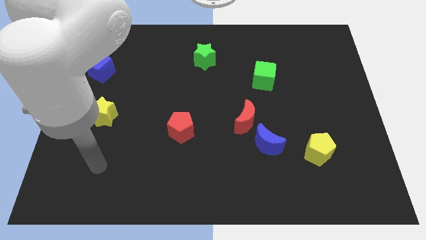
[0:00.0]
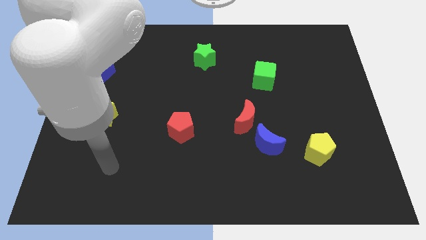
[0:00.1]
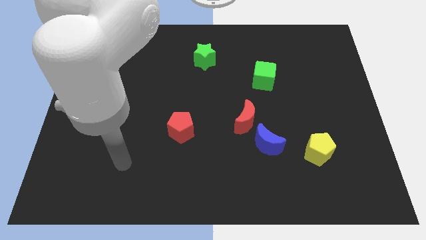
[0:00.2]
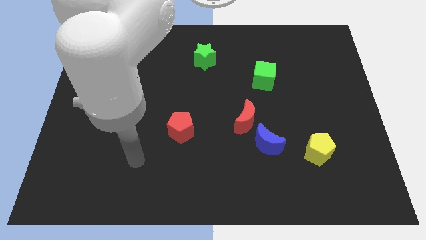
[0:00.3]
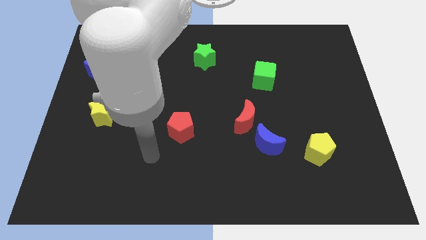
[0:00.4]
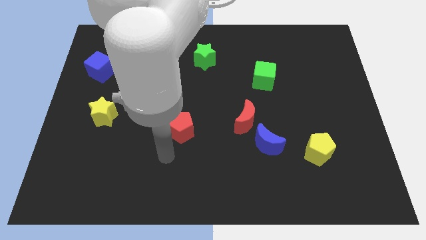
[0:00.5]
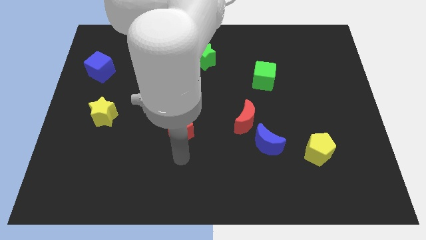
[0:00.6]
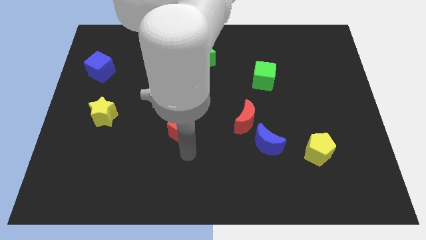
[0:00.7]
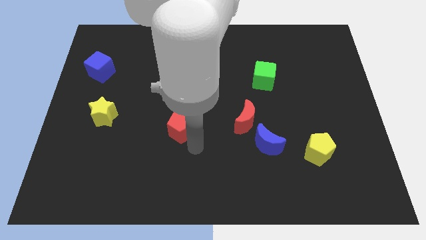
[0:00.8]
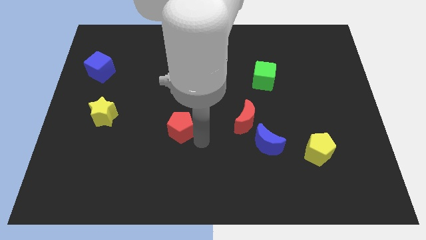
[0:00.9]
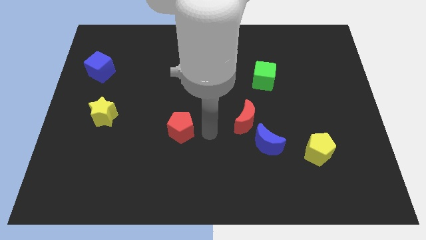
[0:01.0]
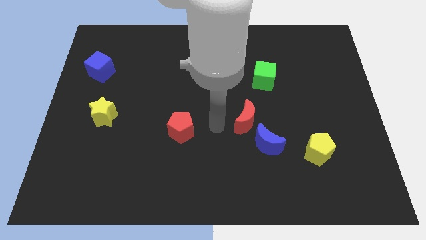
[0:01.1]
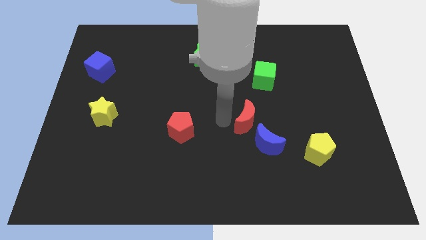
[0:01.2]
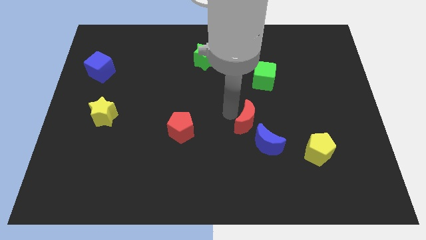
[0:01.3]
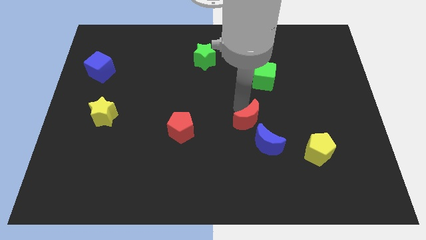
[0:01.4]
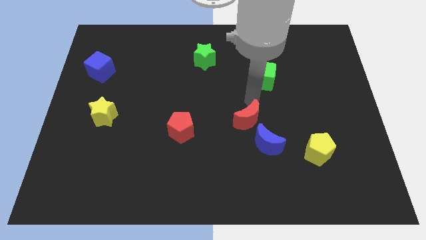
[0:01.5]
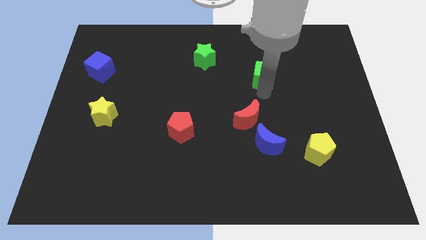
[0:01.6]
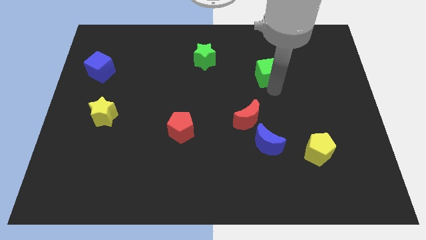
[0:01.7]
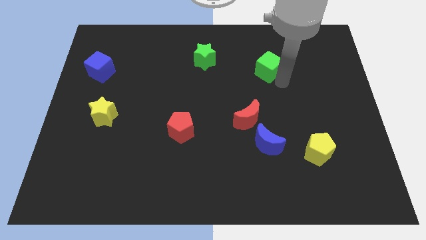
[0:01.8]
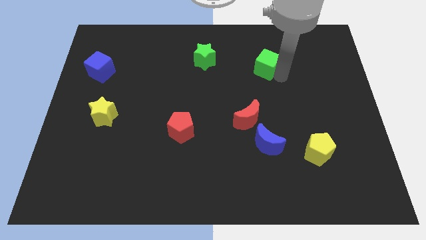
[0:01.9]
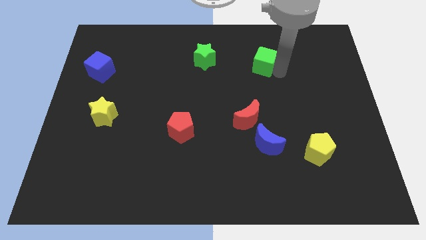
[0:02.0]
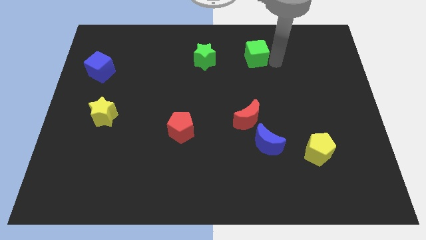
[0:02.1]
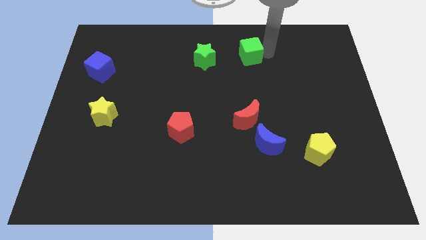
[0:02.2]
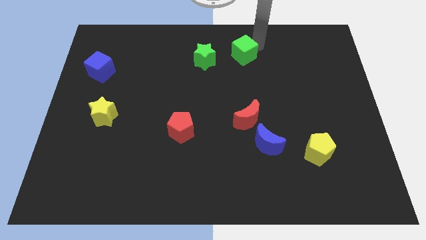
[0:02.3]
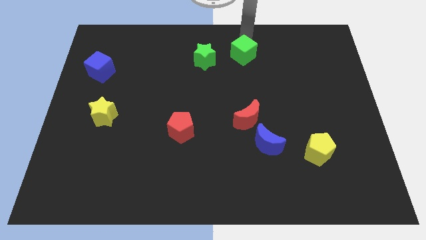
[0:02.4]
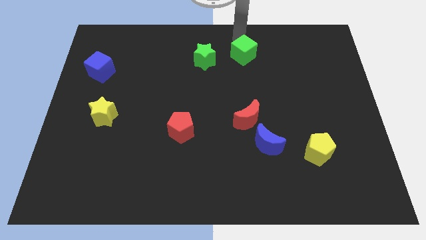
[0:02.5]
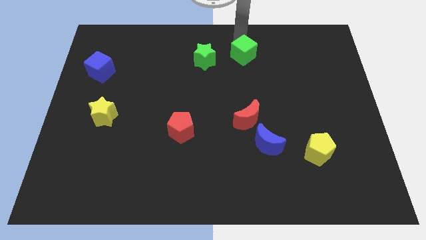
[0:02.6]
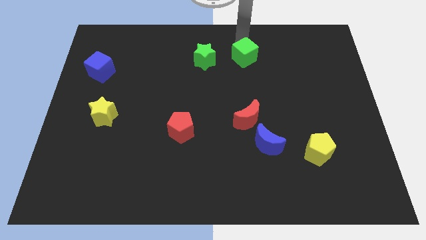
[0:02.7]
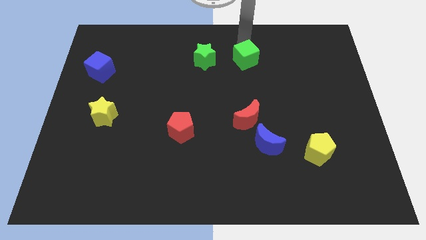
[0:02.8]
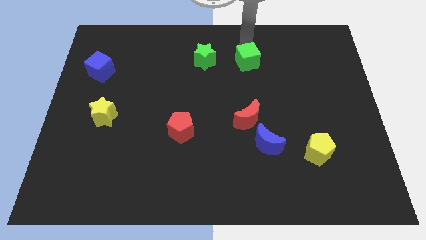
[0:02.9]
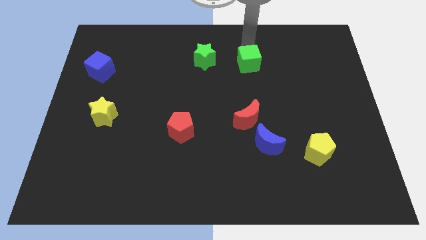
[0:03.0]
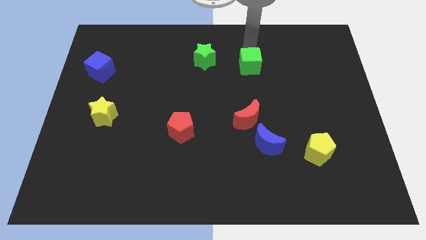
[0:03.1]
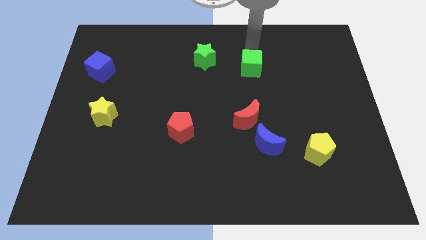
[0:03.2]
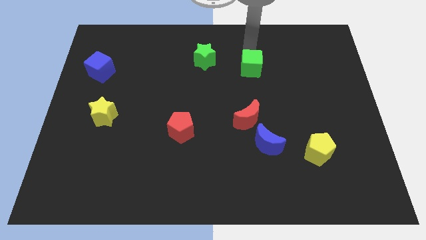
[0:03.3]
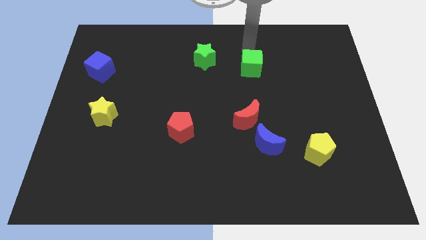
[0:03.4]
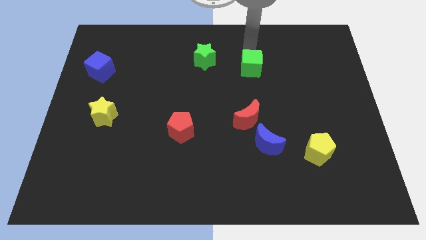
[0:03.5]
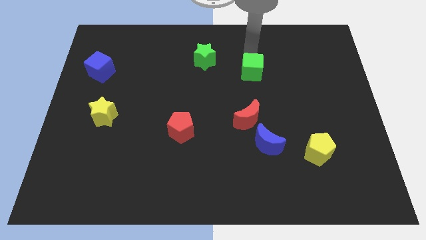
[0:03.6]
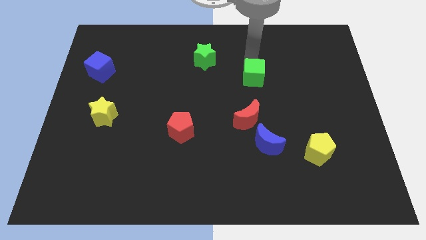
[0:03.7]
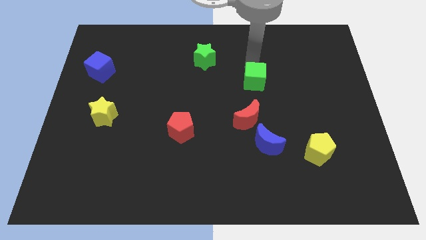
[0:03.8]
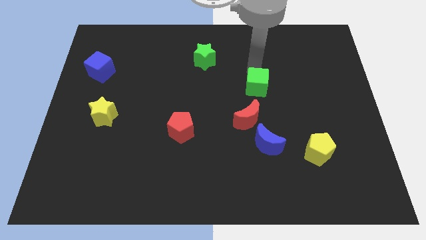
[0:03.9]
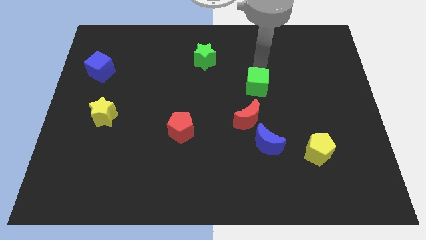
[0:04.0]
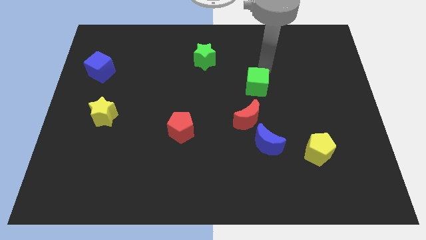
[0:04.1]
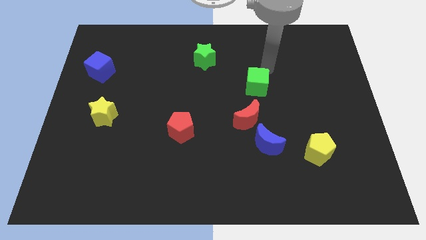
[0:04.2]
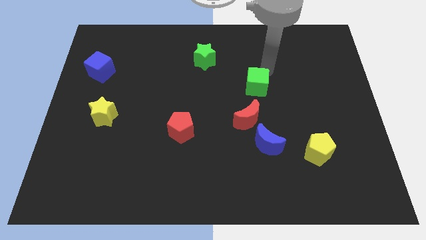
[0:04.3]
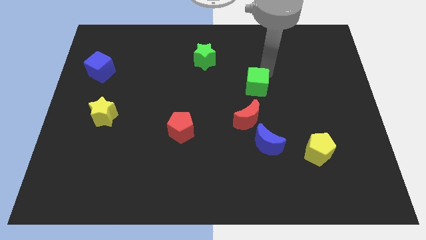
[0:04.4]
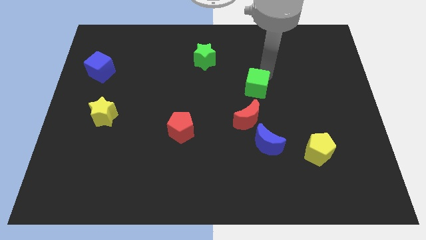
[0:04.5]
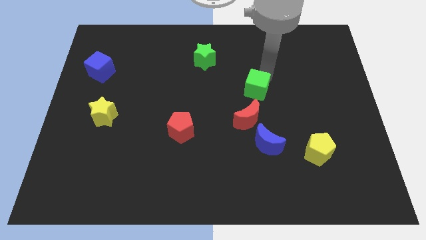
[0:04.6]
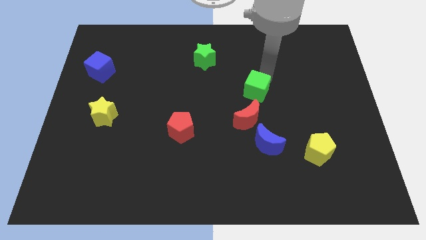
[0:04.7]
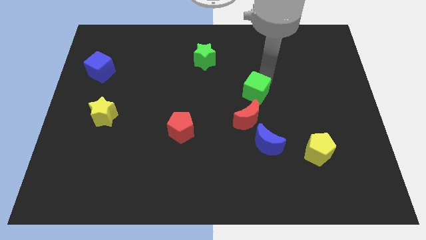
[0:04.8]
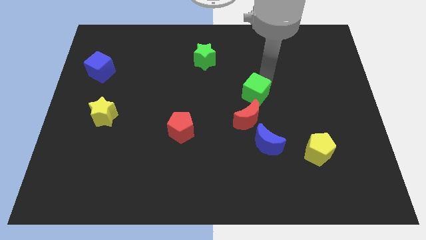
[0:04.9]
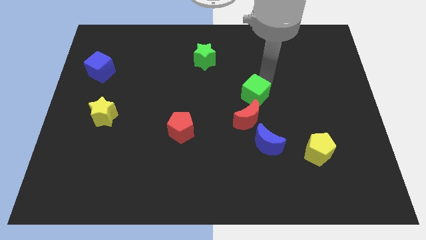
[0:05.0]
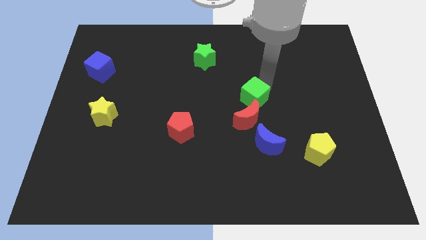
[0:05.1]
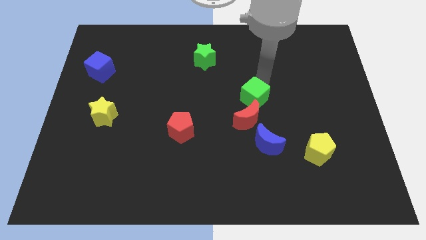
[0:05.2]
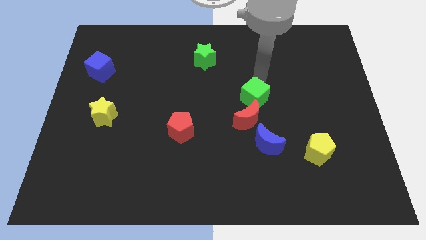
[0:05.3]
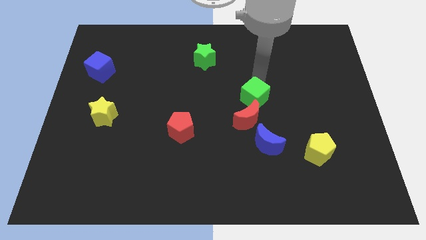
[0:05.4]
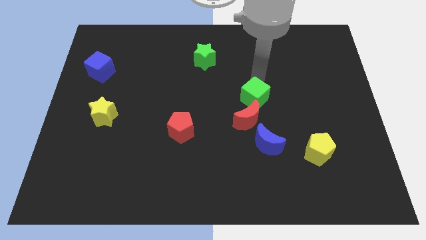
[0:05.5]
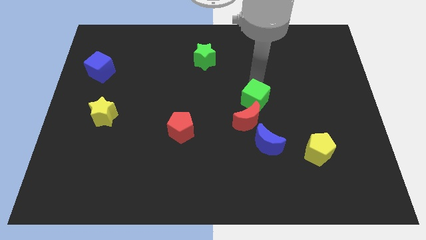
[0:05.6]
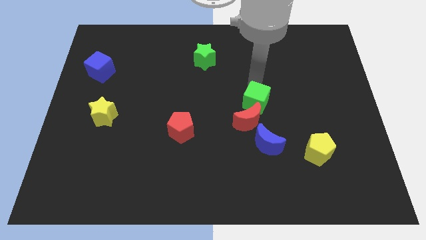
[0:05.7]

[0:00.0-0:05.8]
put the green cube towards the red moon
